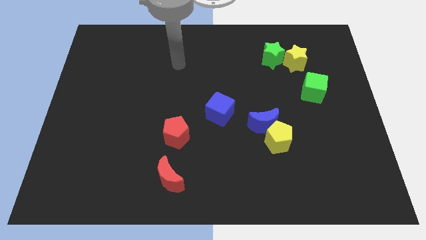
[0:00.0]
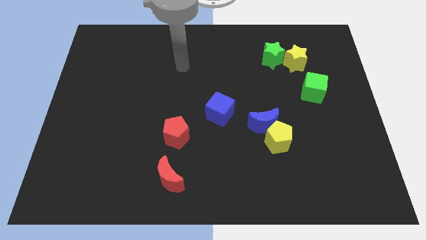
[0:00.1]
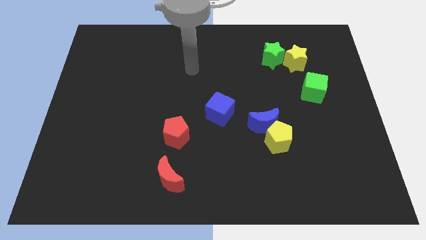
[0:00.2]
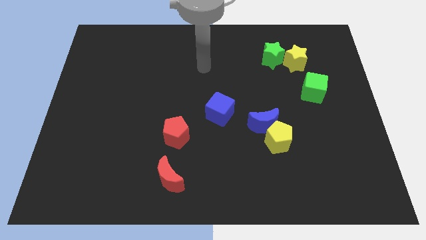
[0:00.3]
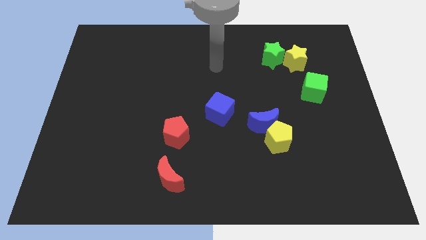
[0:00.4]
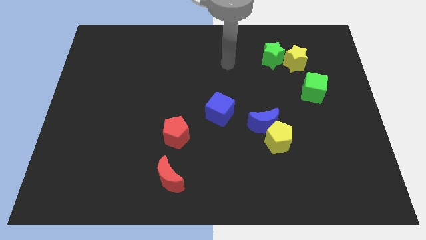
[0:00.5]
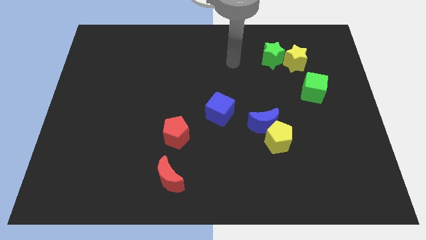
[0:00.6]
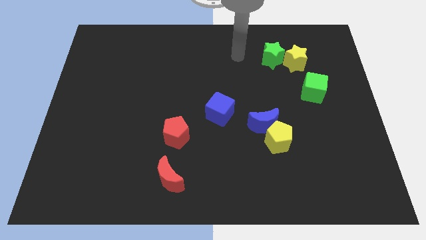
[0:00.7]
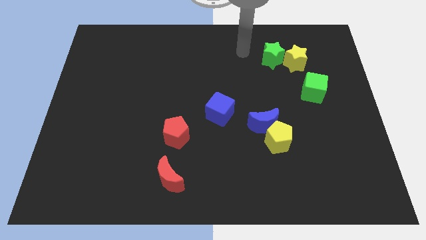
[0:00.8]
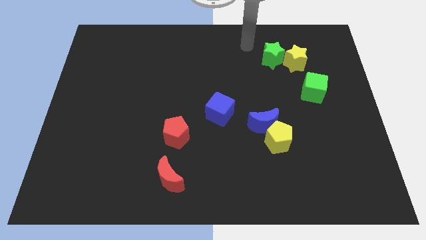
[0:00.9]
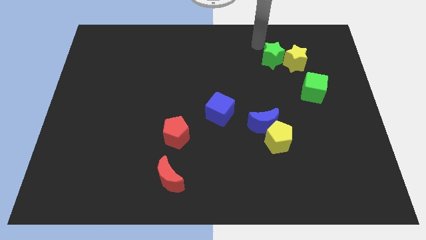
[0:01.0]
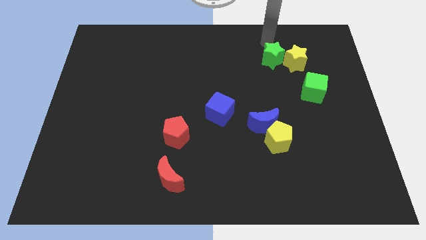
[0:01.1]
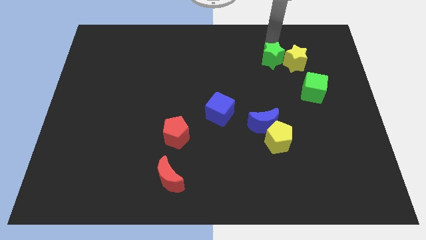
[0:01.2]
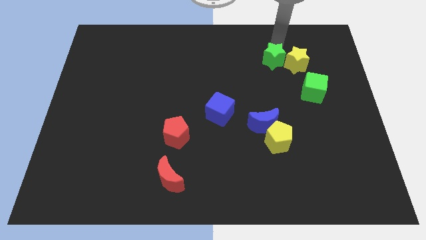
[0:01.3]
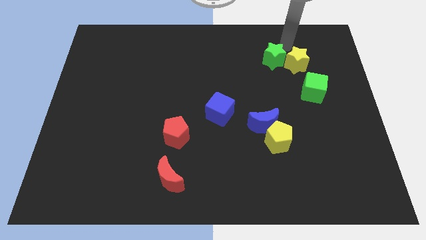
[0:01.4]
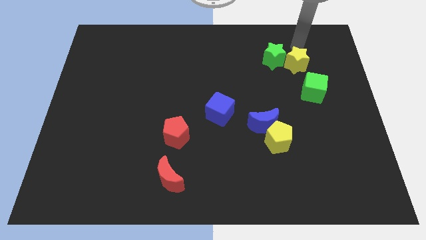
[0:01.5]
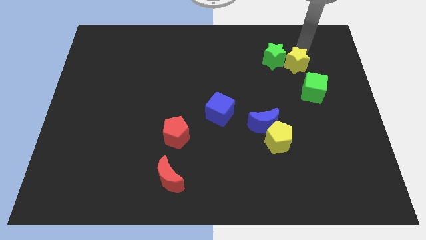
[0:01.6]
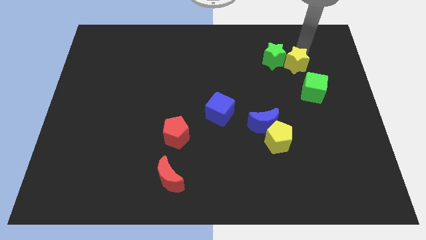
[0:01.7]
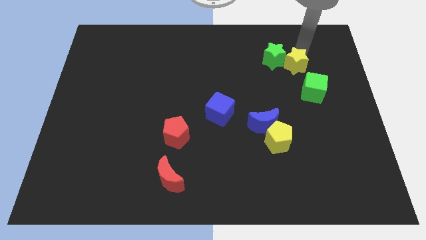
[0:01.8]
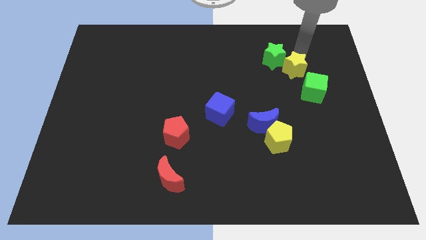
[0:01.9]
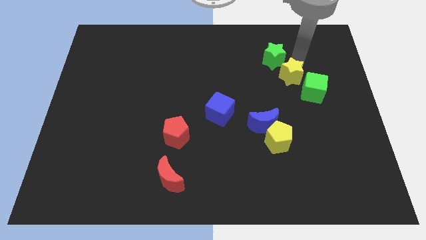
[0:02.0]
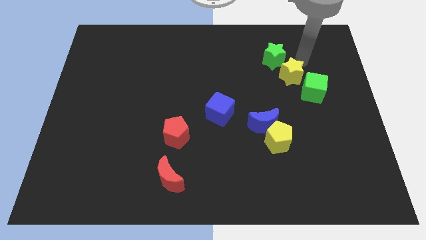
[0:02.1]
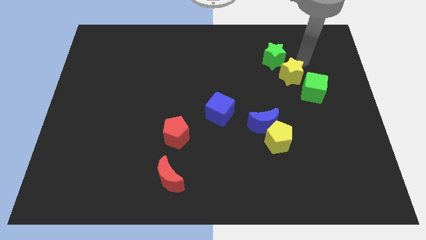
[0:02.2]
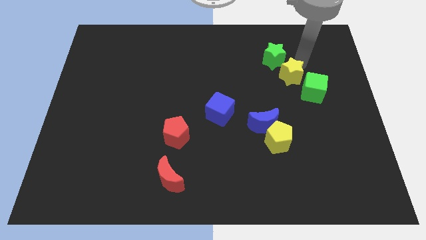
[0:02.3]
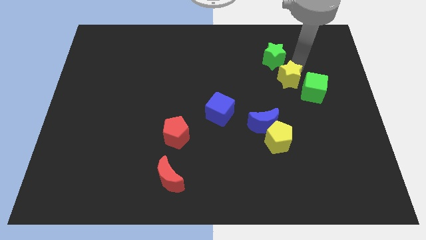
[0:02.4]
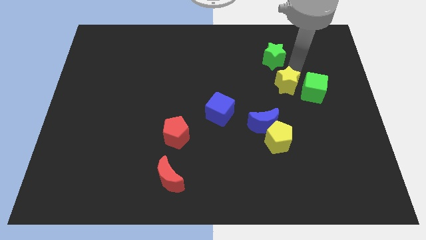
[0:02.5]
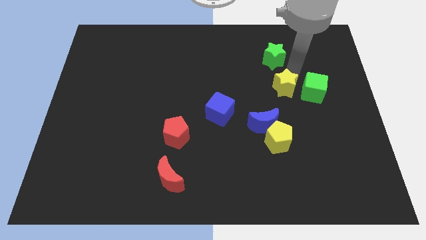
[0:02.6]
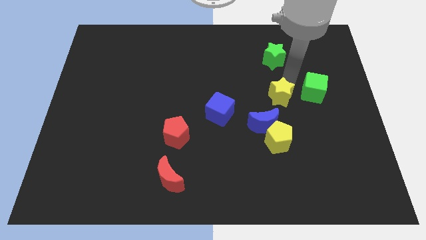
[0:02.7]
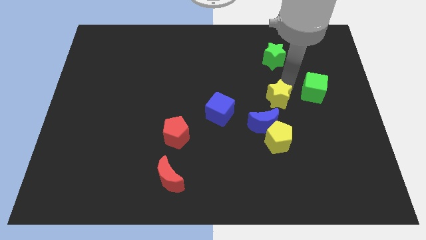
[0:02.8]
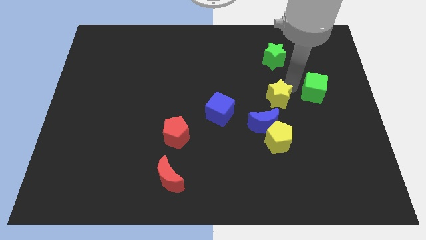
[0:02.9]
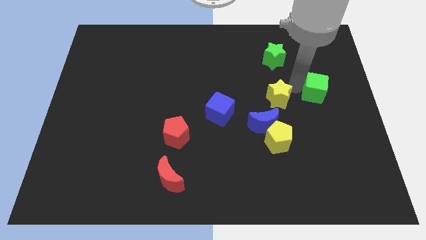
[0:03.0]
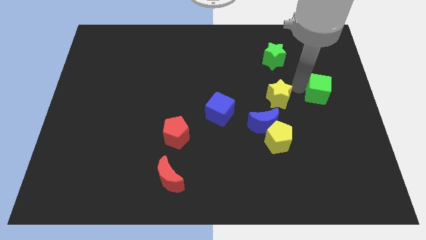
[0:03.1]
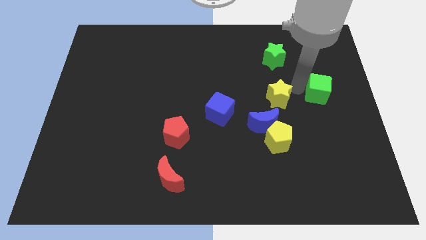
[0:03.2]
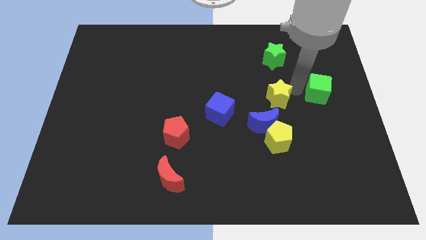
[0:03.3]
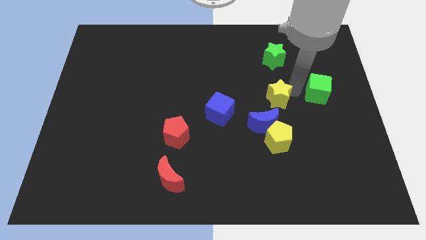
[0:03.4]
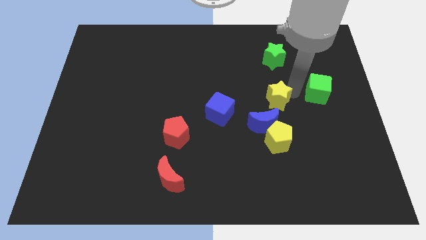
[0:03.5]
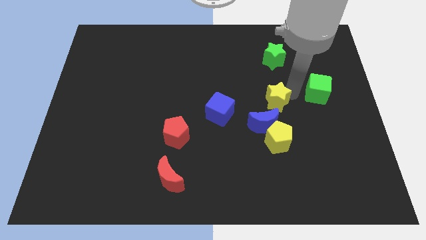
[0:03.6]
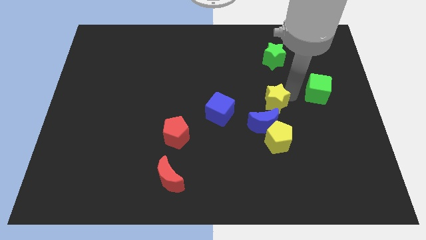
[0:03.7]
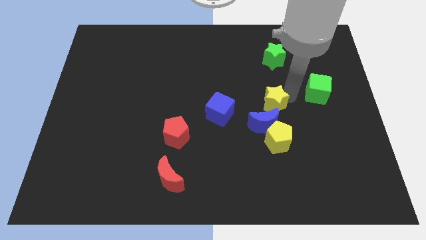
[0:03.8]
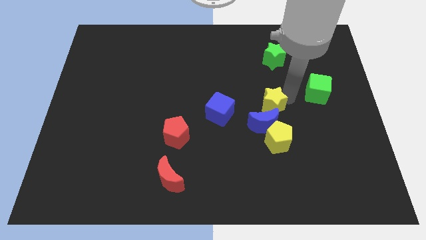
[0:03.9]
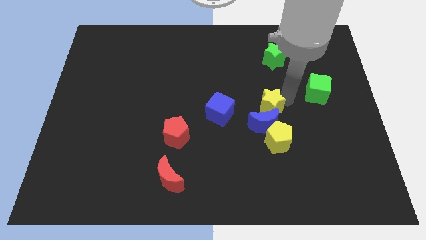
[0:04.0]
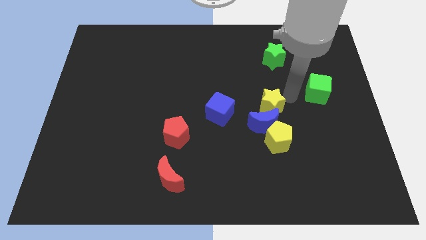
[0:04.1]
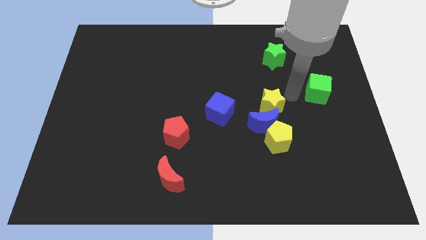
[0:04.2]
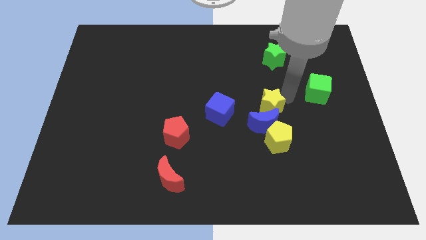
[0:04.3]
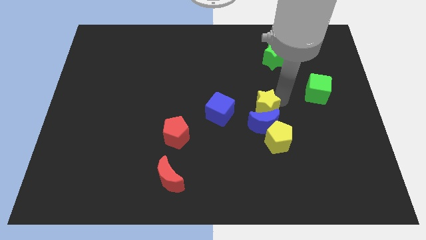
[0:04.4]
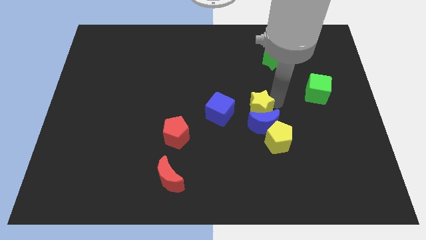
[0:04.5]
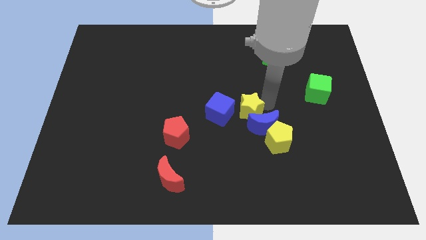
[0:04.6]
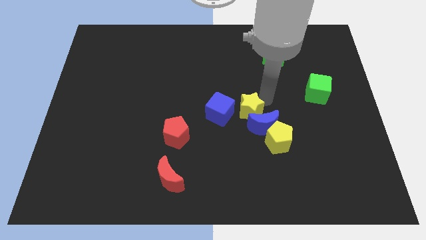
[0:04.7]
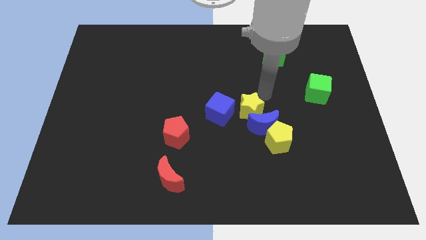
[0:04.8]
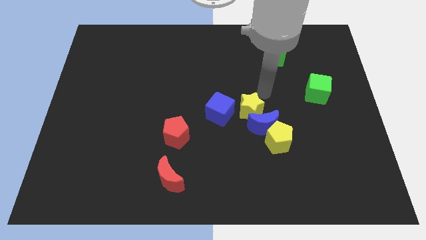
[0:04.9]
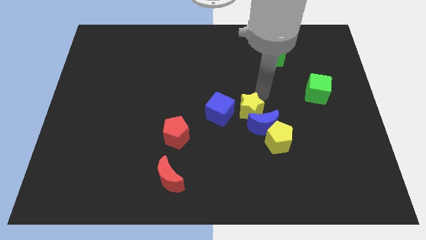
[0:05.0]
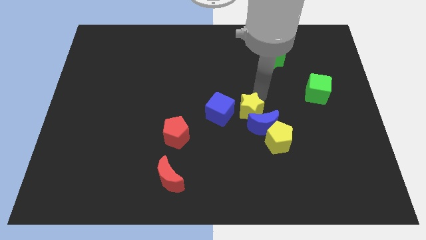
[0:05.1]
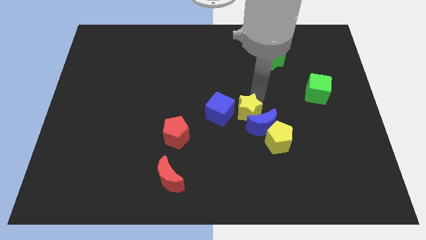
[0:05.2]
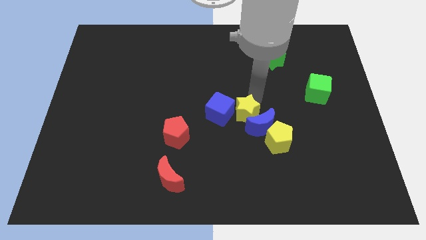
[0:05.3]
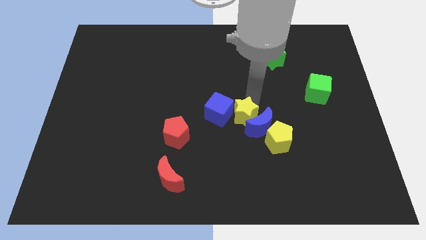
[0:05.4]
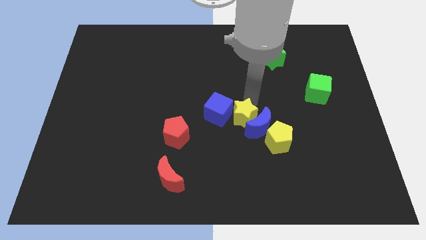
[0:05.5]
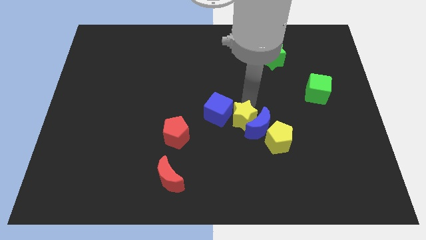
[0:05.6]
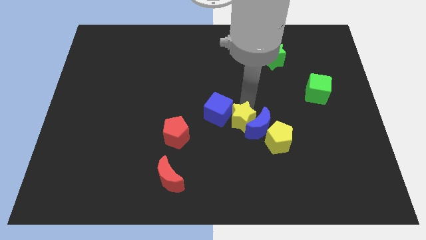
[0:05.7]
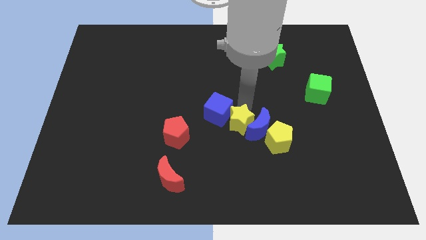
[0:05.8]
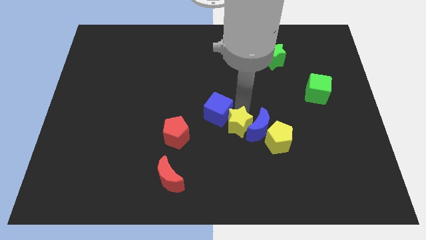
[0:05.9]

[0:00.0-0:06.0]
move the yellow star to the bottom of the blue cube

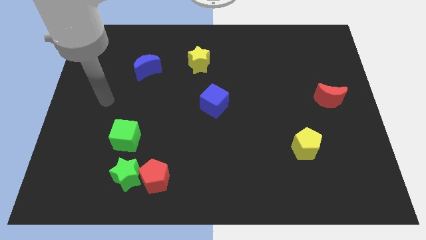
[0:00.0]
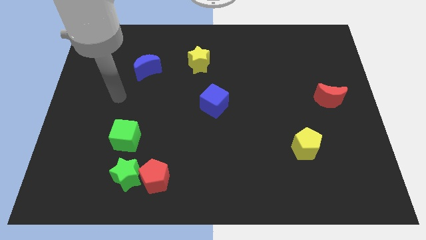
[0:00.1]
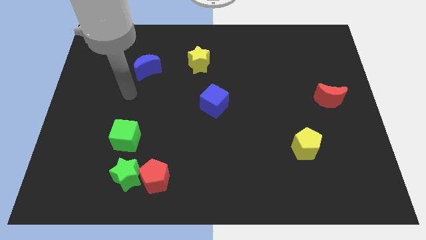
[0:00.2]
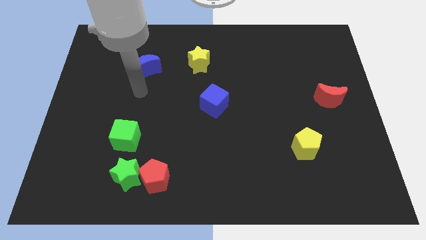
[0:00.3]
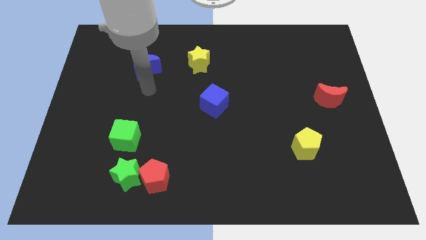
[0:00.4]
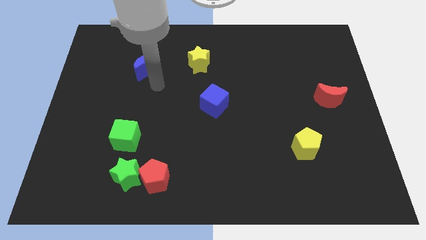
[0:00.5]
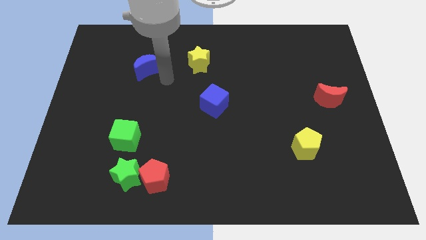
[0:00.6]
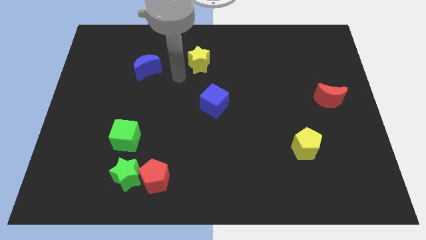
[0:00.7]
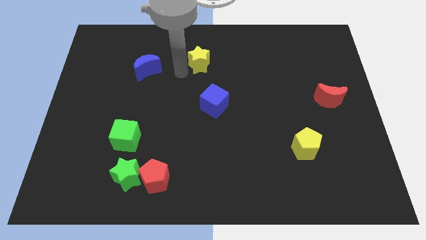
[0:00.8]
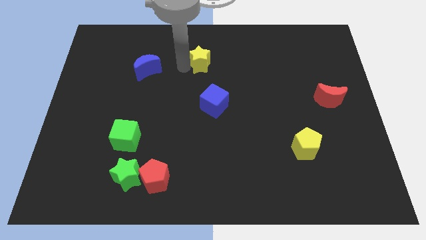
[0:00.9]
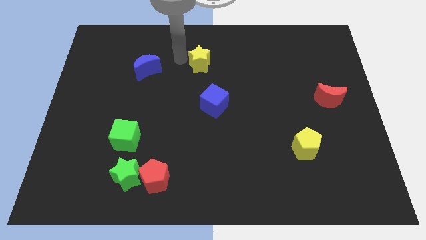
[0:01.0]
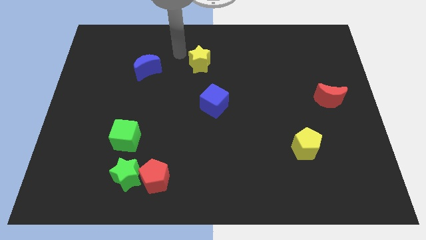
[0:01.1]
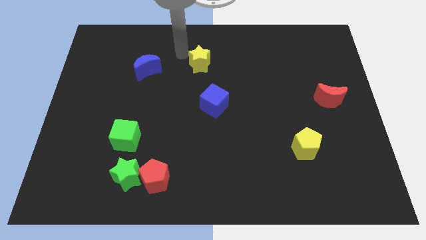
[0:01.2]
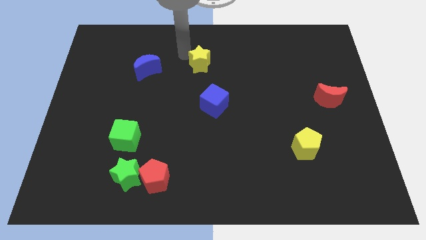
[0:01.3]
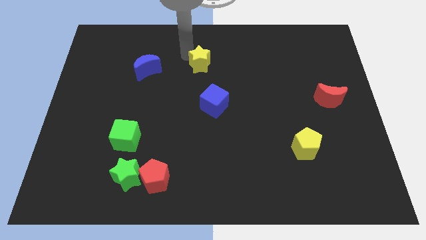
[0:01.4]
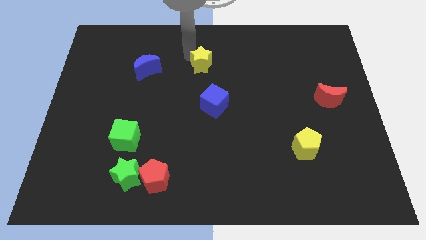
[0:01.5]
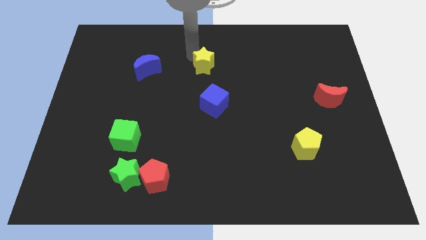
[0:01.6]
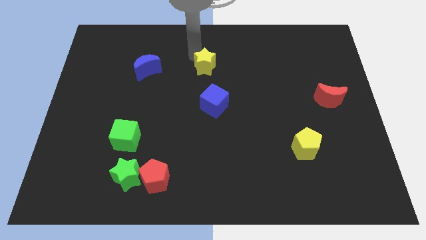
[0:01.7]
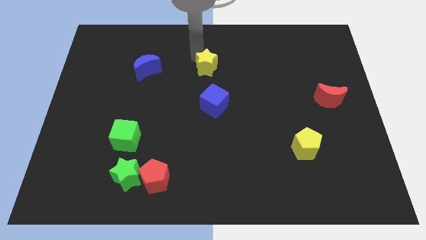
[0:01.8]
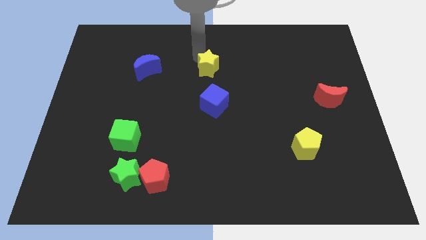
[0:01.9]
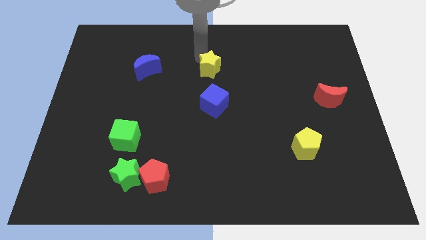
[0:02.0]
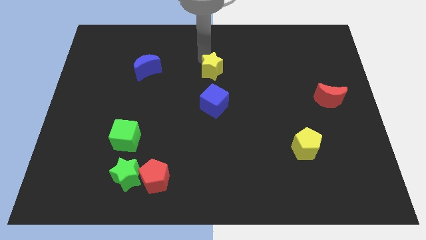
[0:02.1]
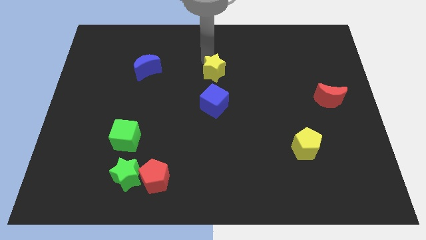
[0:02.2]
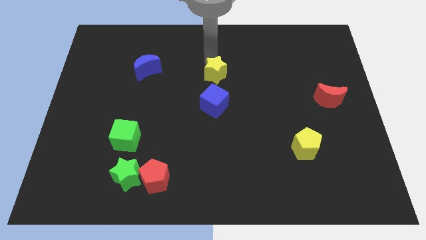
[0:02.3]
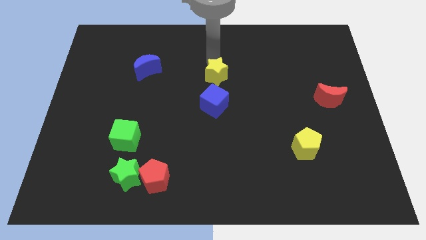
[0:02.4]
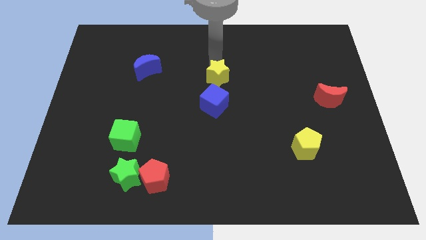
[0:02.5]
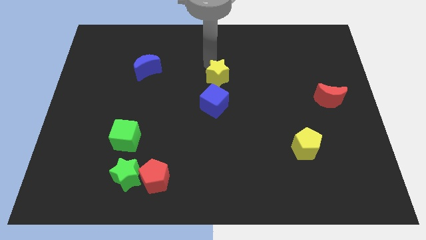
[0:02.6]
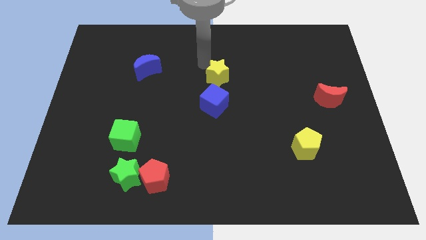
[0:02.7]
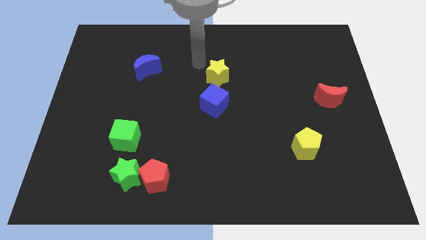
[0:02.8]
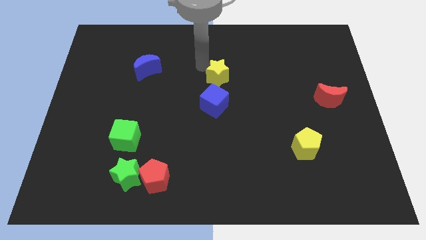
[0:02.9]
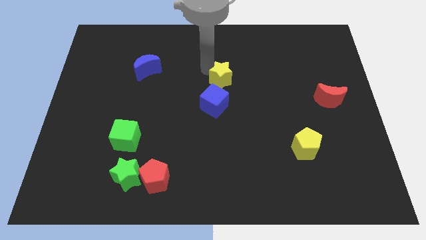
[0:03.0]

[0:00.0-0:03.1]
move the yellow star to the top right side of the blue cube
